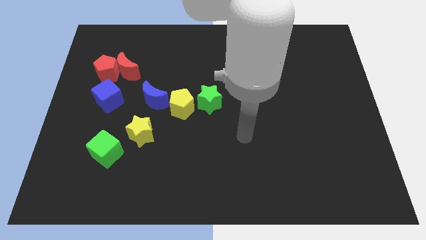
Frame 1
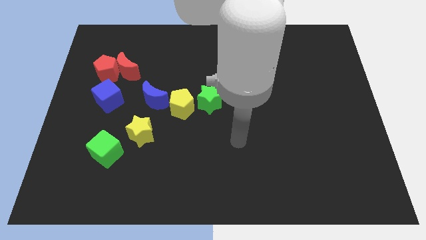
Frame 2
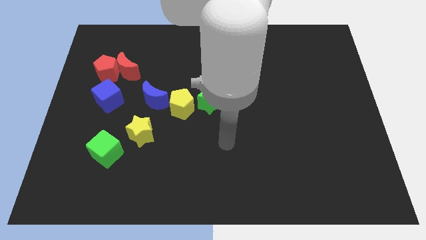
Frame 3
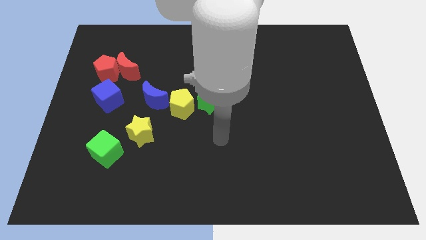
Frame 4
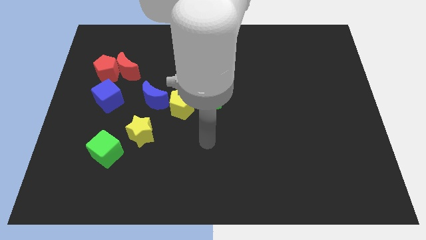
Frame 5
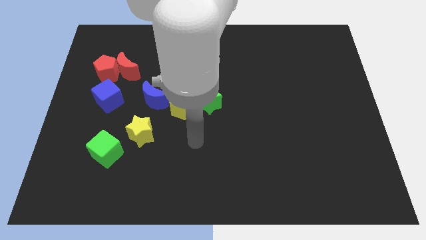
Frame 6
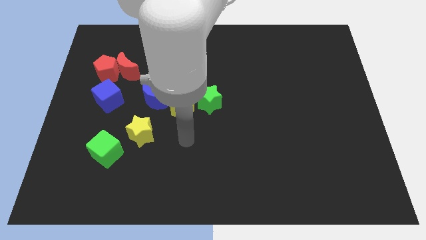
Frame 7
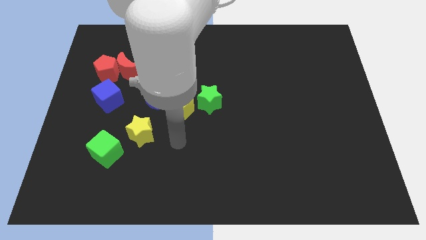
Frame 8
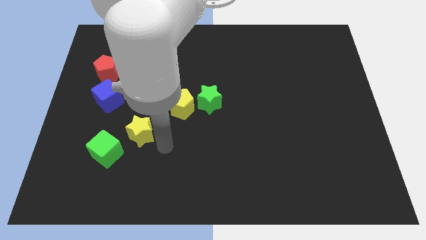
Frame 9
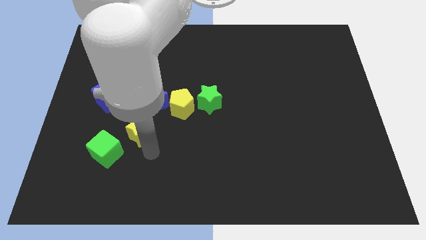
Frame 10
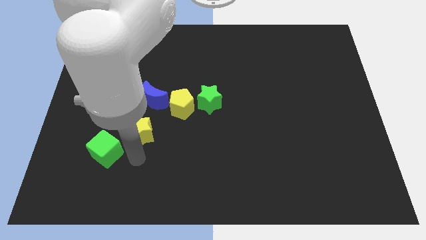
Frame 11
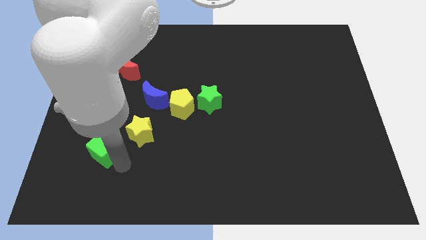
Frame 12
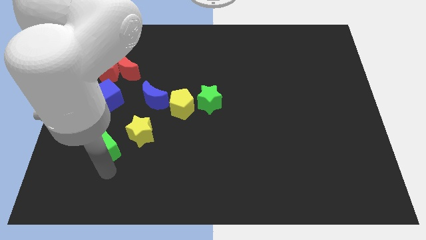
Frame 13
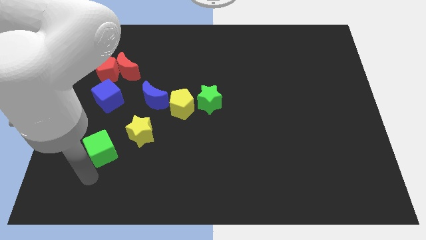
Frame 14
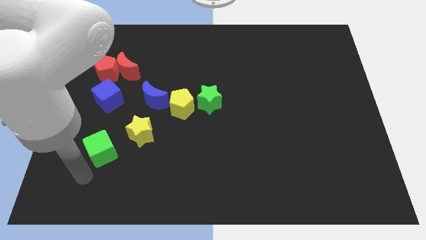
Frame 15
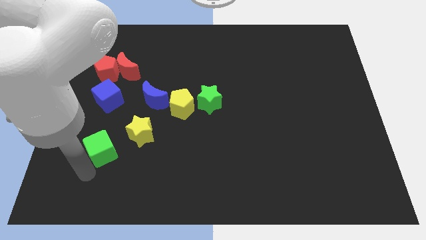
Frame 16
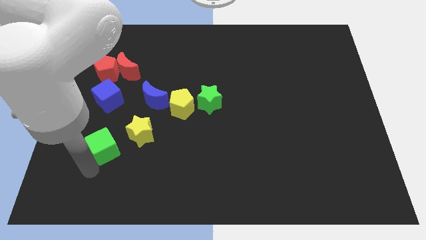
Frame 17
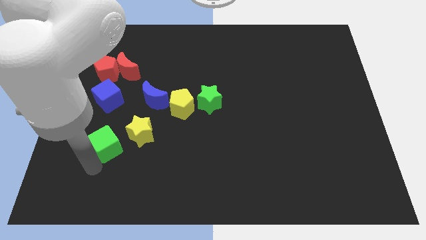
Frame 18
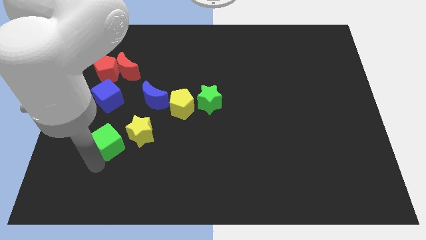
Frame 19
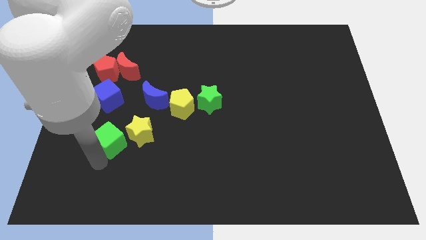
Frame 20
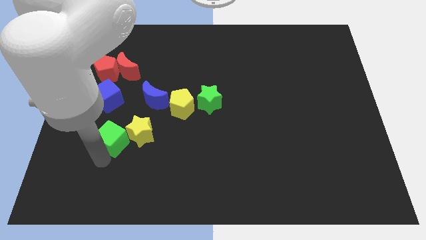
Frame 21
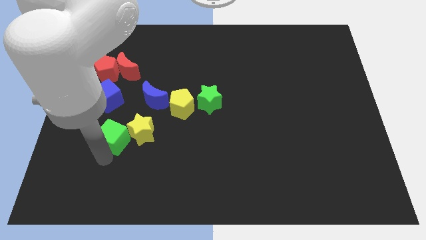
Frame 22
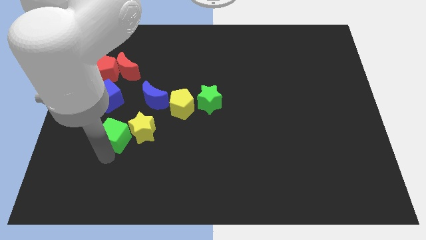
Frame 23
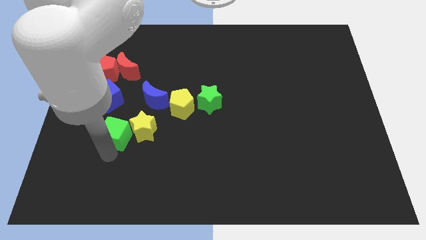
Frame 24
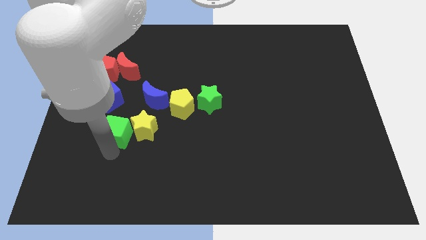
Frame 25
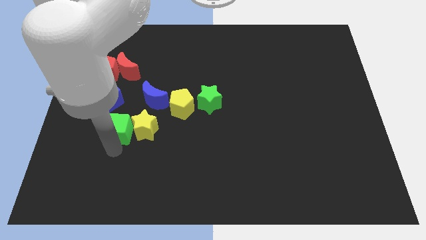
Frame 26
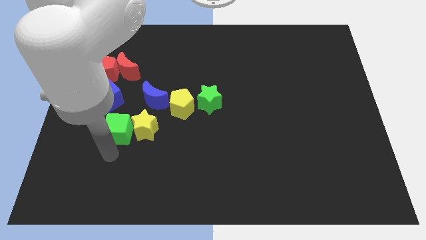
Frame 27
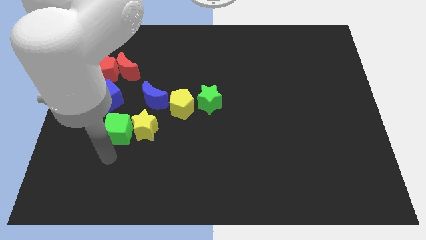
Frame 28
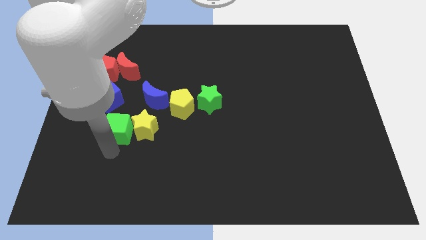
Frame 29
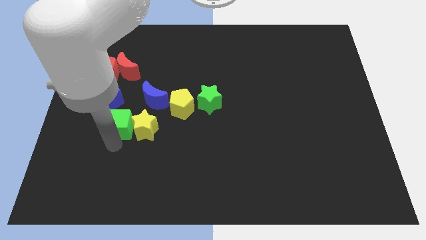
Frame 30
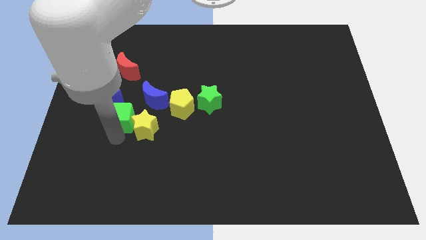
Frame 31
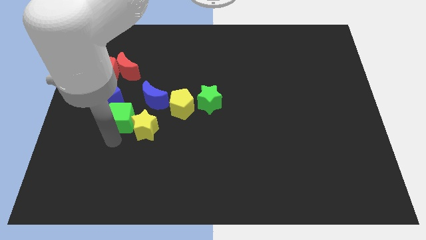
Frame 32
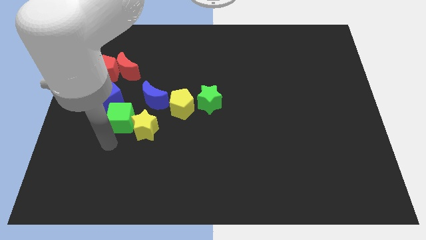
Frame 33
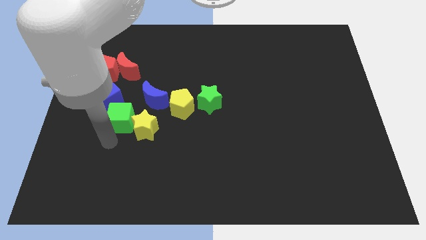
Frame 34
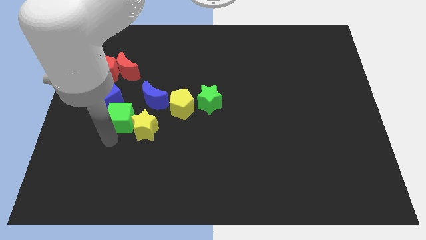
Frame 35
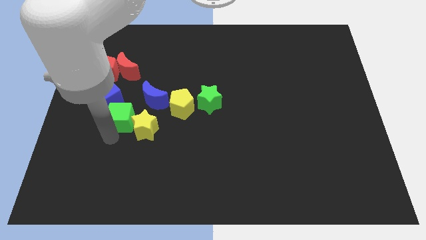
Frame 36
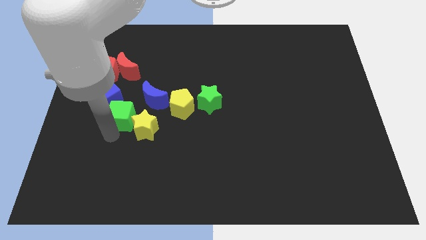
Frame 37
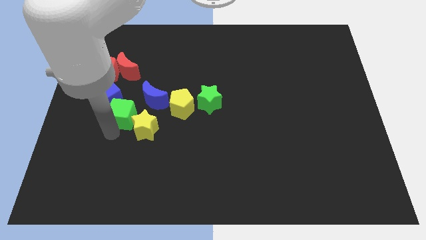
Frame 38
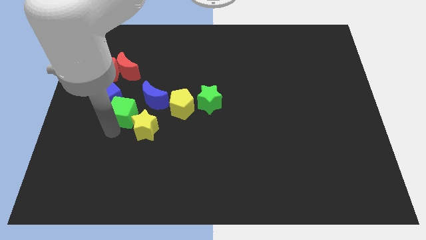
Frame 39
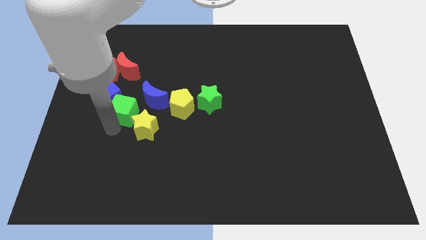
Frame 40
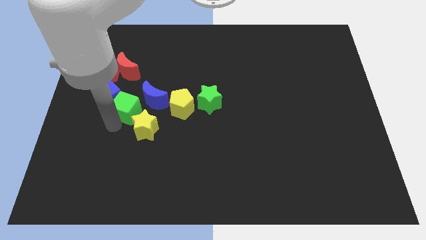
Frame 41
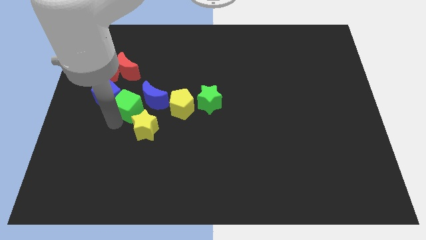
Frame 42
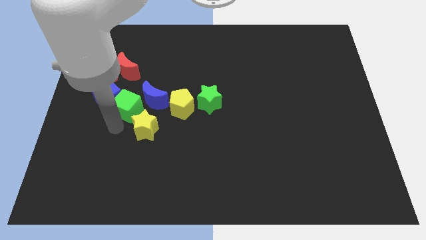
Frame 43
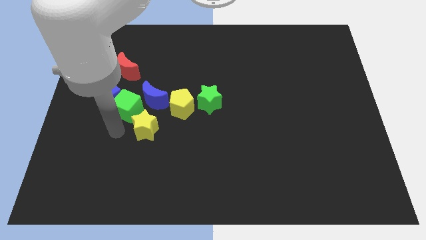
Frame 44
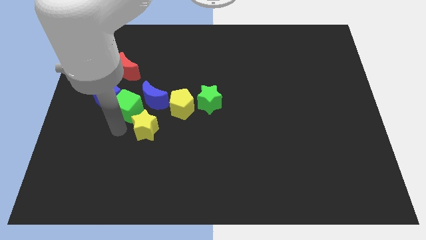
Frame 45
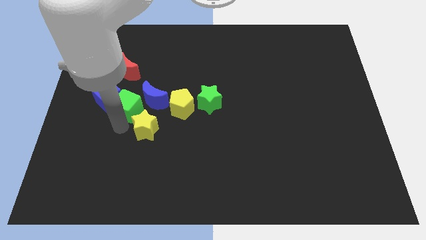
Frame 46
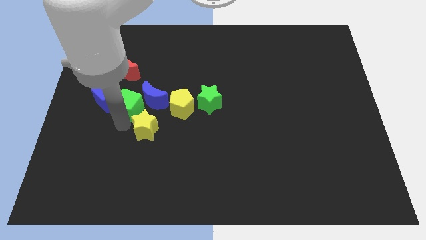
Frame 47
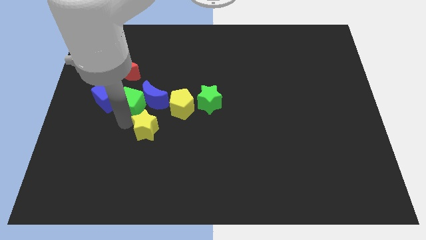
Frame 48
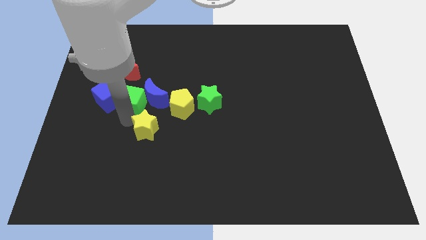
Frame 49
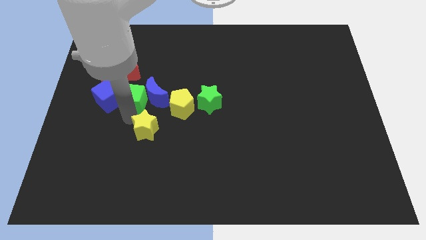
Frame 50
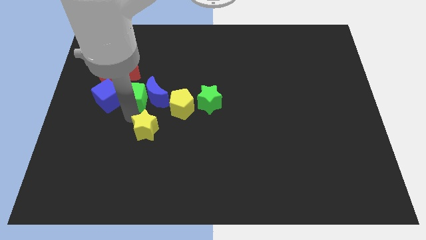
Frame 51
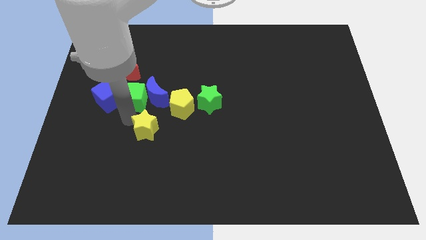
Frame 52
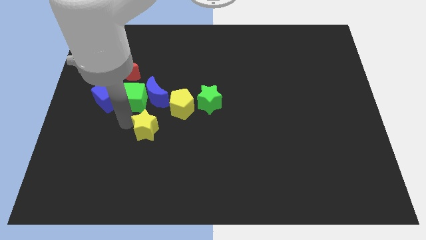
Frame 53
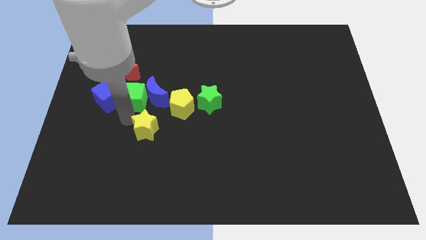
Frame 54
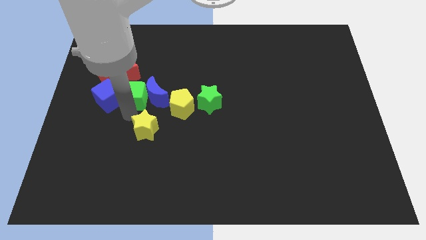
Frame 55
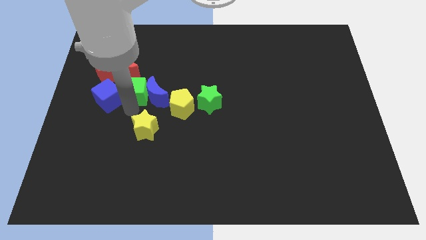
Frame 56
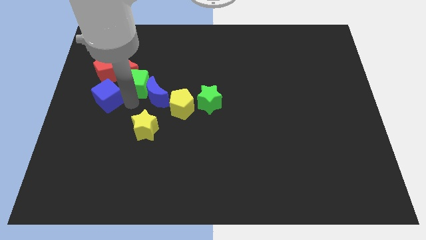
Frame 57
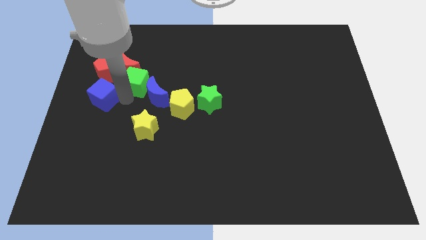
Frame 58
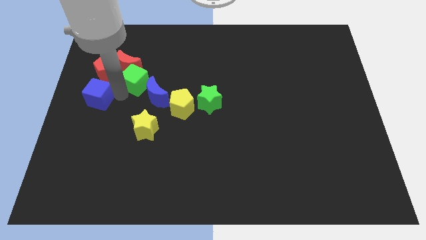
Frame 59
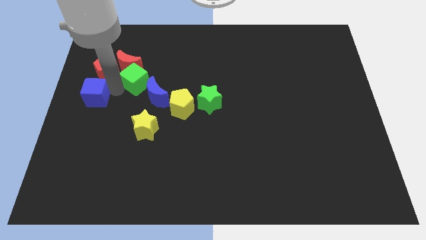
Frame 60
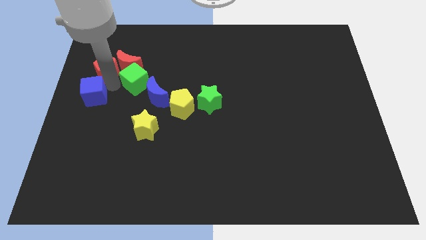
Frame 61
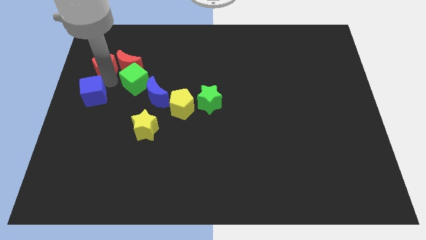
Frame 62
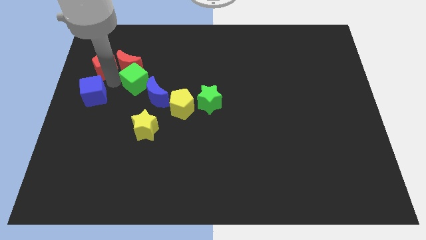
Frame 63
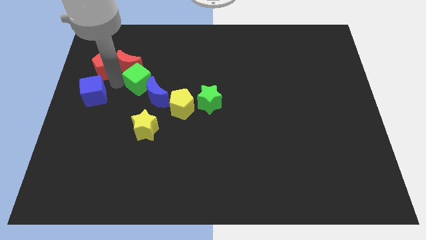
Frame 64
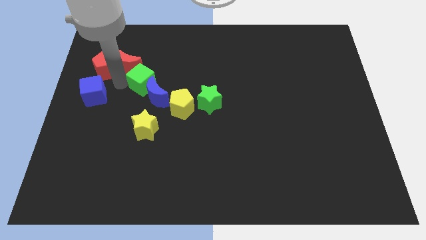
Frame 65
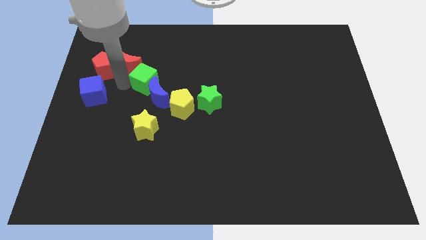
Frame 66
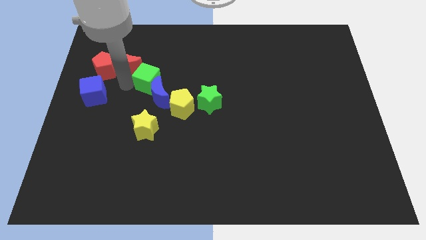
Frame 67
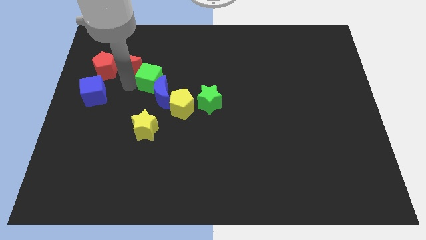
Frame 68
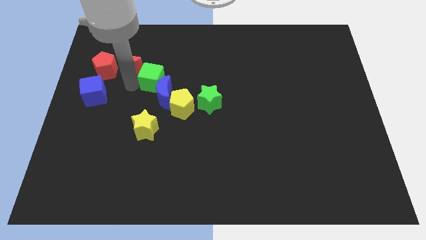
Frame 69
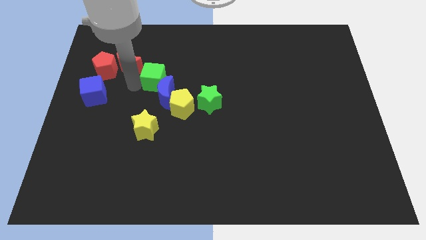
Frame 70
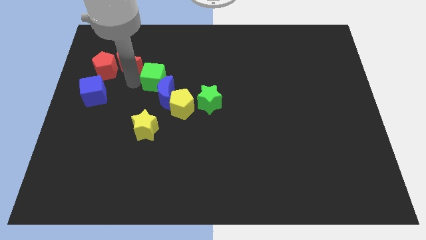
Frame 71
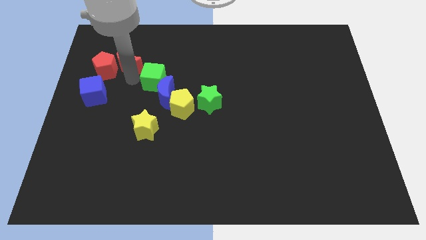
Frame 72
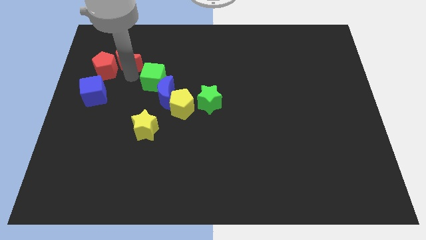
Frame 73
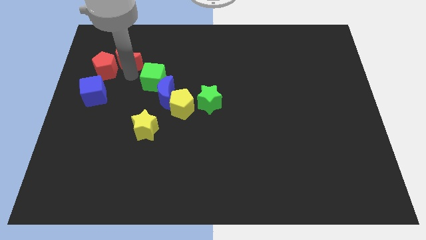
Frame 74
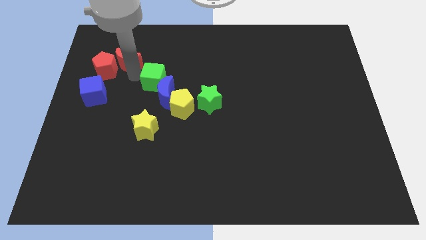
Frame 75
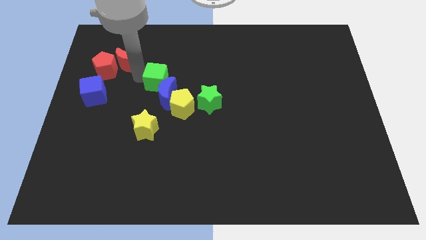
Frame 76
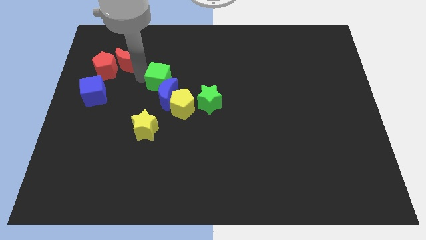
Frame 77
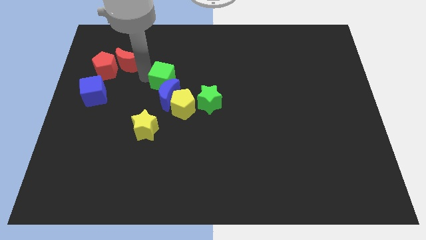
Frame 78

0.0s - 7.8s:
slide the green cube up and then right

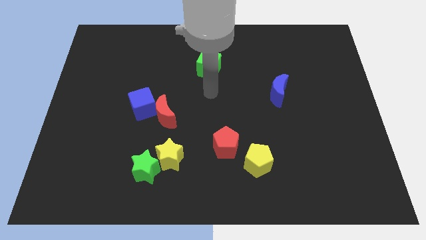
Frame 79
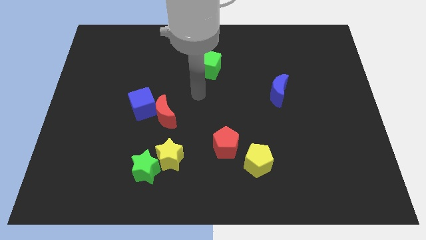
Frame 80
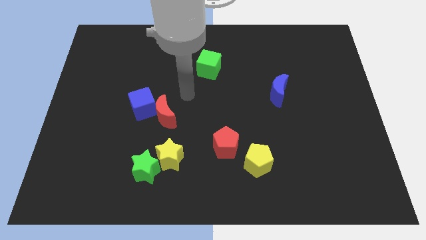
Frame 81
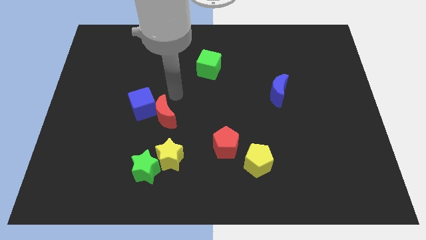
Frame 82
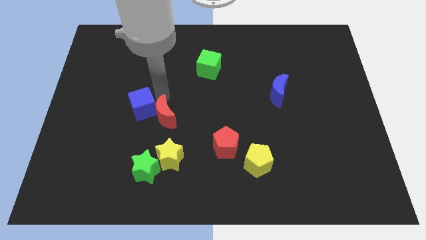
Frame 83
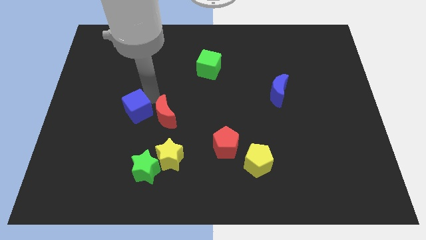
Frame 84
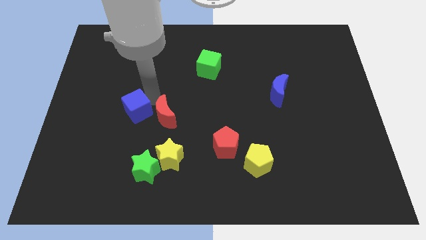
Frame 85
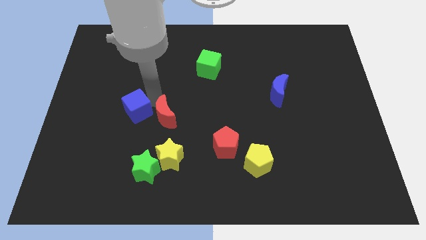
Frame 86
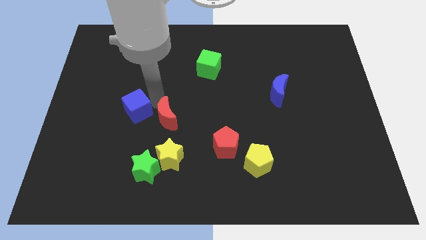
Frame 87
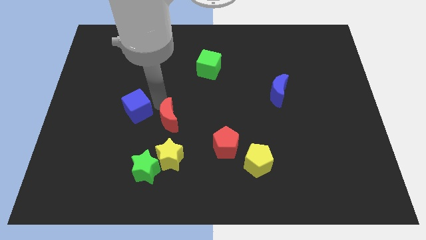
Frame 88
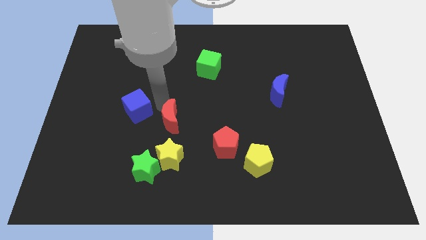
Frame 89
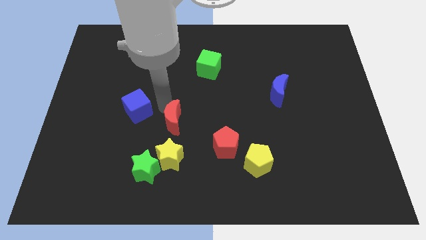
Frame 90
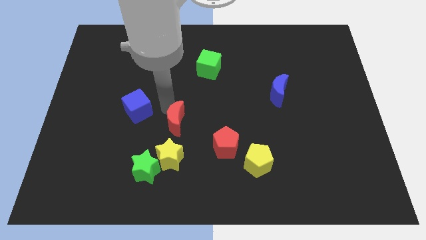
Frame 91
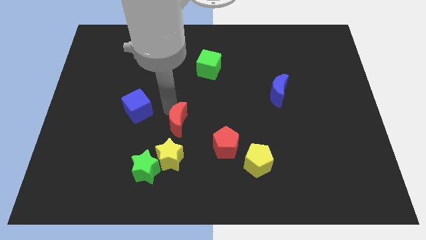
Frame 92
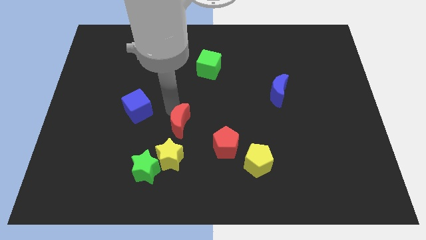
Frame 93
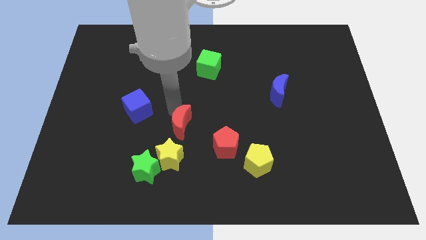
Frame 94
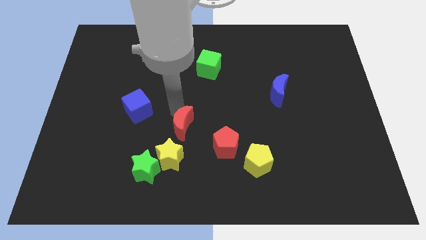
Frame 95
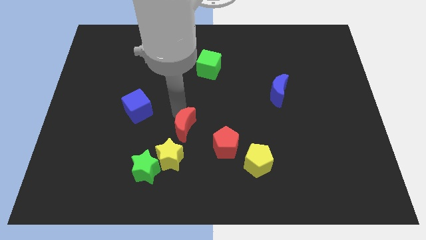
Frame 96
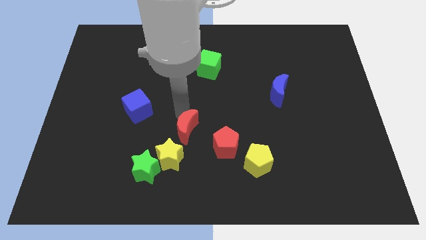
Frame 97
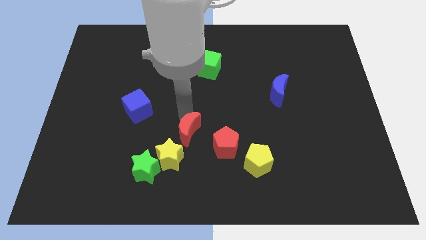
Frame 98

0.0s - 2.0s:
push the red moon slightly down and to the right diagonally
